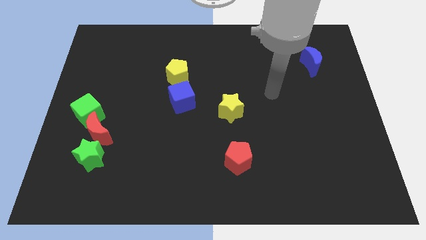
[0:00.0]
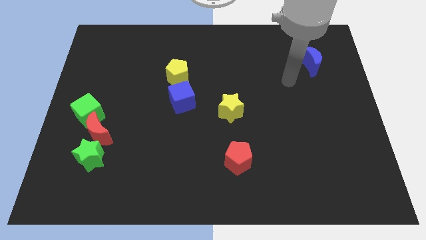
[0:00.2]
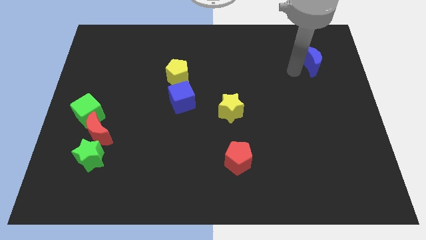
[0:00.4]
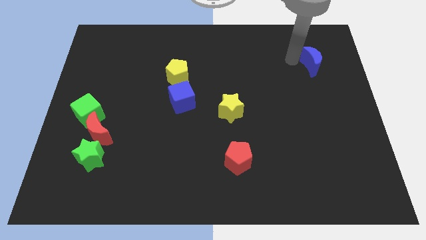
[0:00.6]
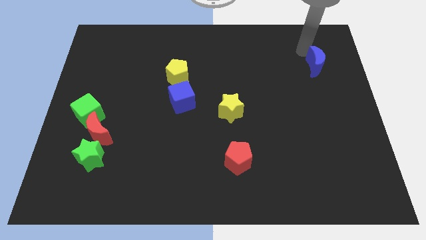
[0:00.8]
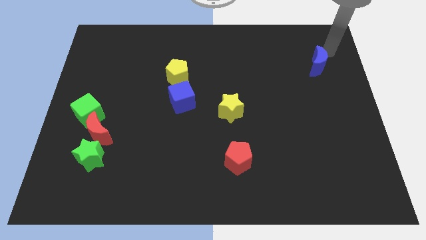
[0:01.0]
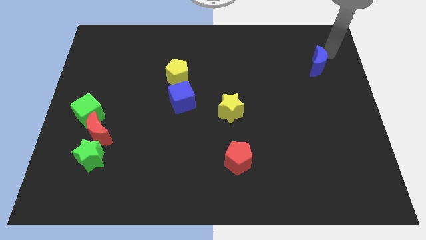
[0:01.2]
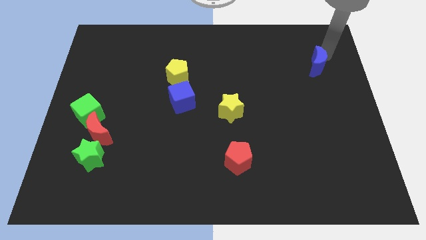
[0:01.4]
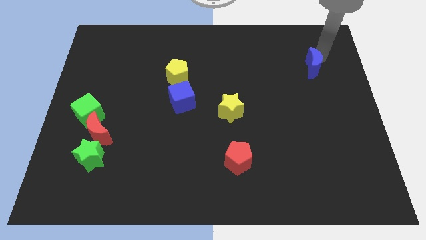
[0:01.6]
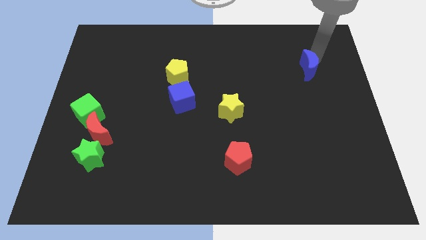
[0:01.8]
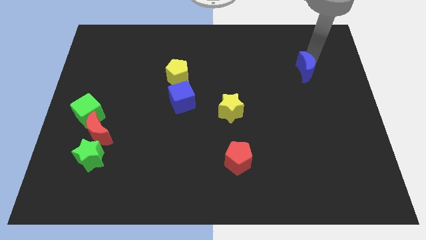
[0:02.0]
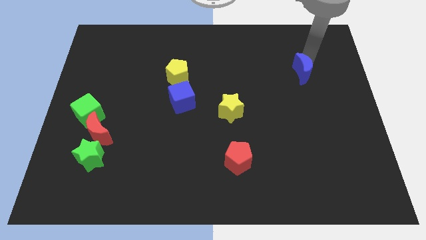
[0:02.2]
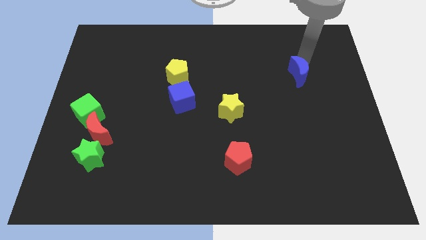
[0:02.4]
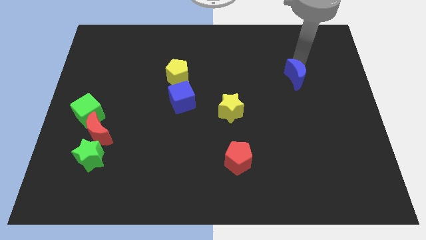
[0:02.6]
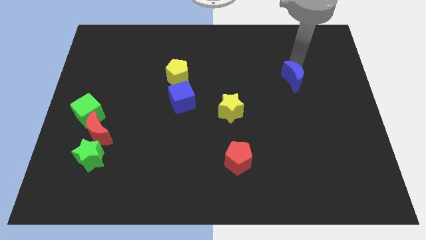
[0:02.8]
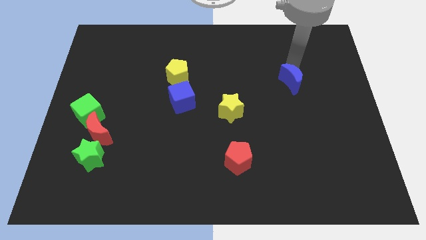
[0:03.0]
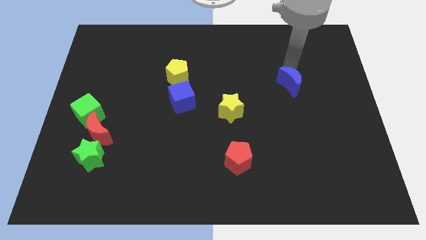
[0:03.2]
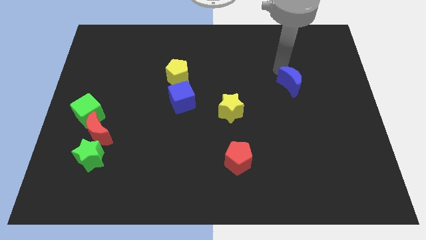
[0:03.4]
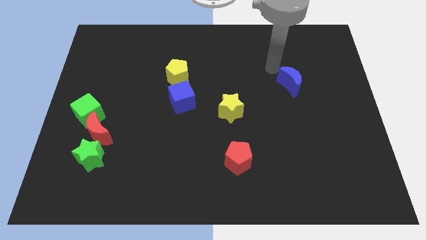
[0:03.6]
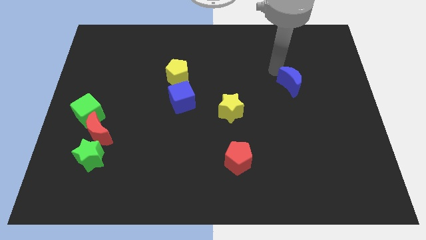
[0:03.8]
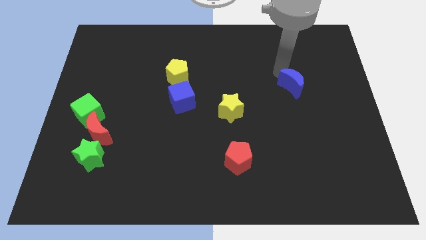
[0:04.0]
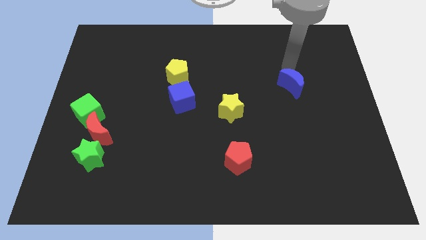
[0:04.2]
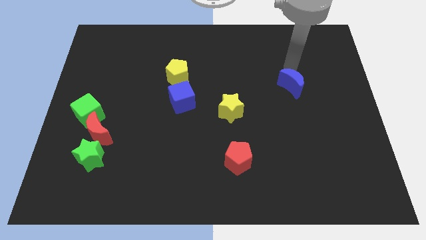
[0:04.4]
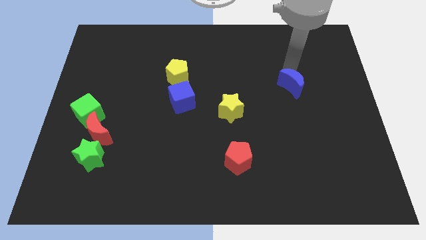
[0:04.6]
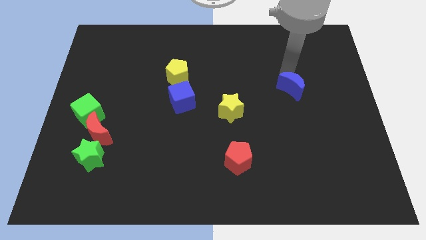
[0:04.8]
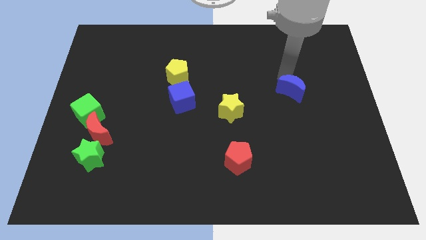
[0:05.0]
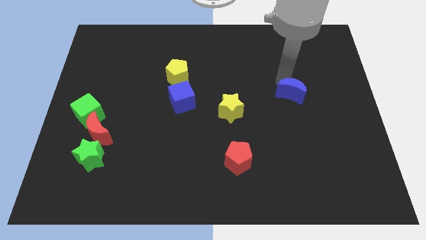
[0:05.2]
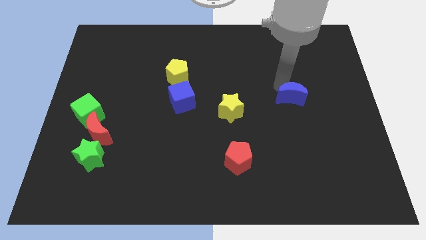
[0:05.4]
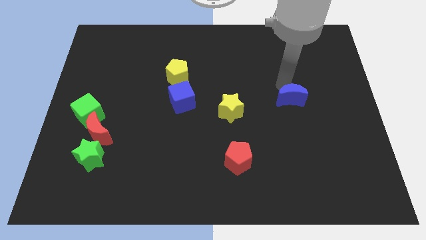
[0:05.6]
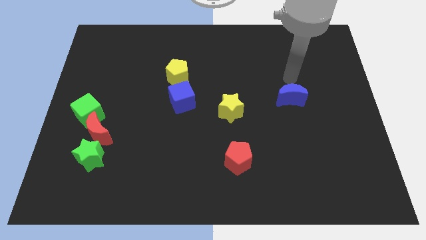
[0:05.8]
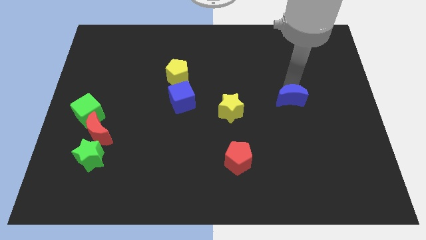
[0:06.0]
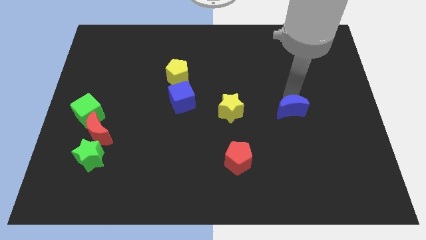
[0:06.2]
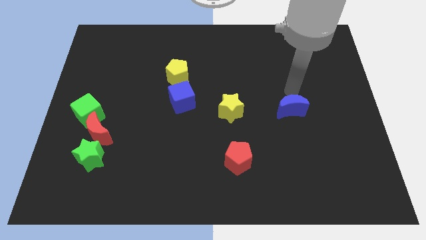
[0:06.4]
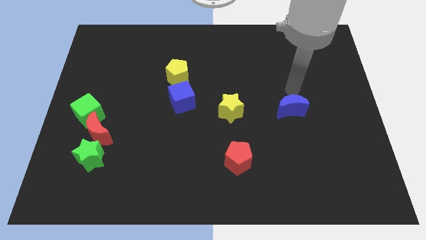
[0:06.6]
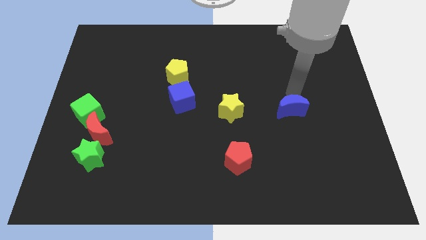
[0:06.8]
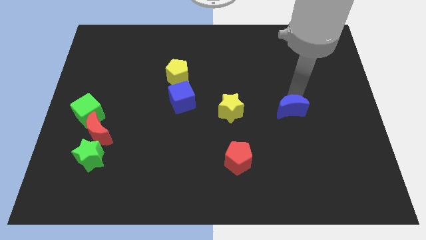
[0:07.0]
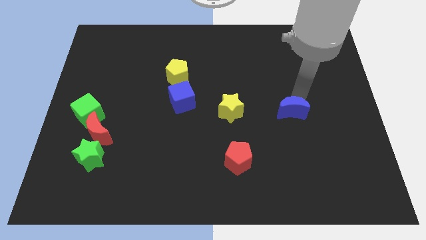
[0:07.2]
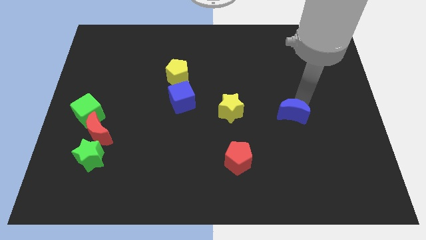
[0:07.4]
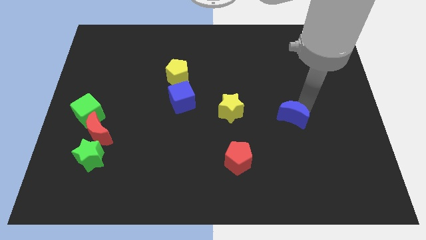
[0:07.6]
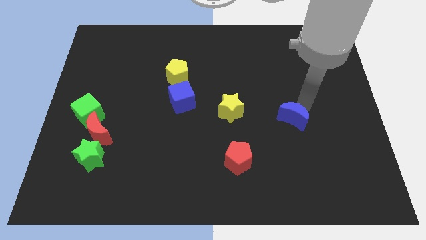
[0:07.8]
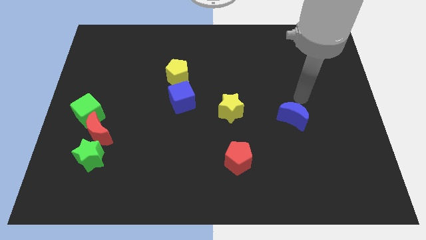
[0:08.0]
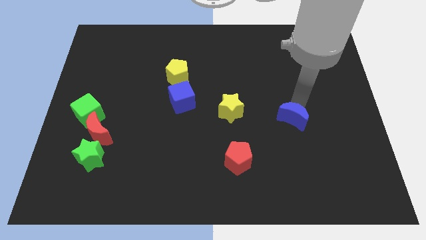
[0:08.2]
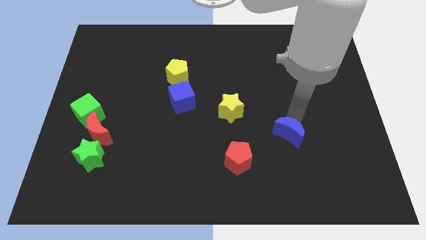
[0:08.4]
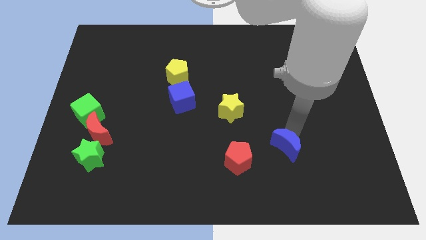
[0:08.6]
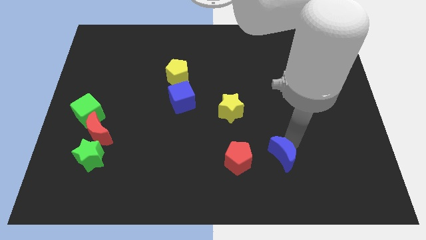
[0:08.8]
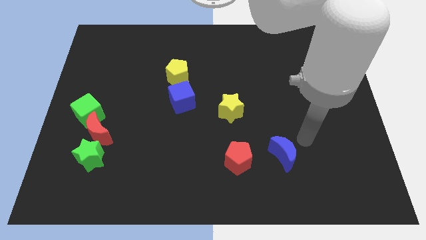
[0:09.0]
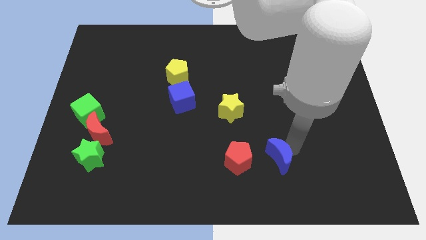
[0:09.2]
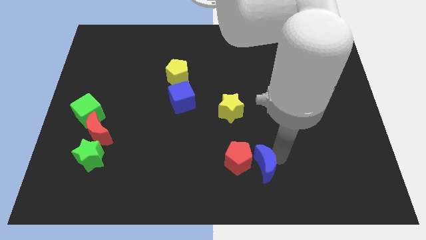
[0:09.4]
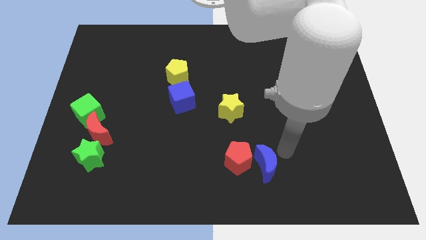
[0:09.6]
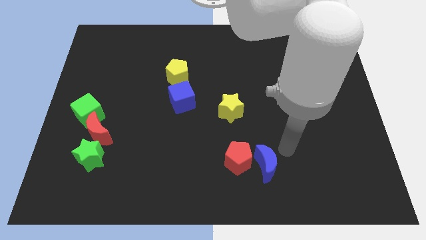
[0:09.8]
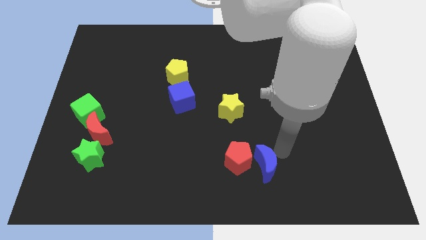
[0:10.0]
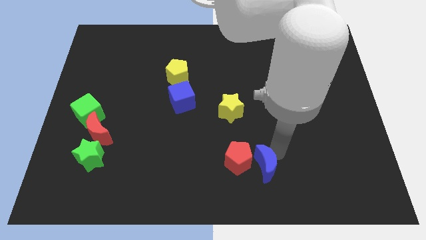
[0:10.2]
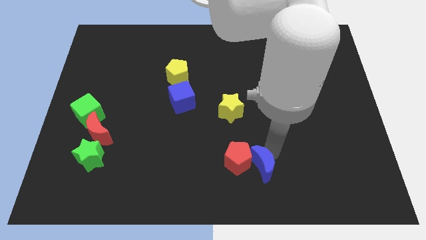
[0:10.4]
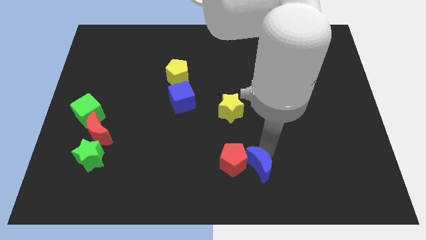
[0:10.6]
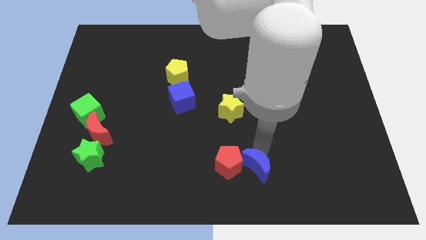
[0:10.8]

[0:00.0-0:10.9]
move the blue moon to the bottom
